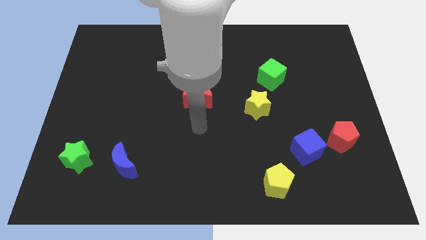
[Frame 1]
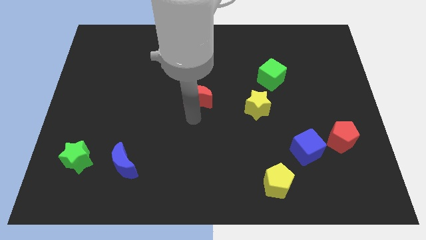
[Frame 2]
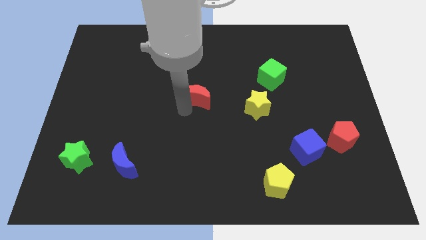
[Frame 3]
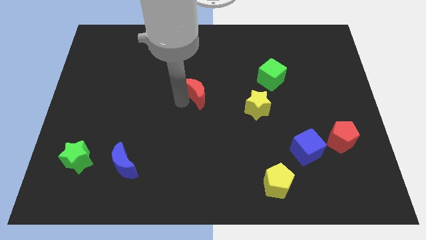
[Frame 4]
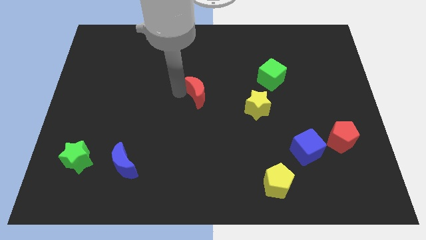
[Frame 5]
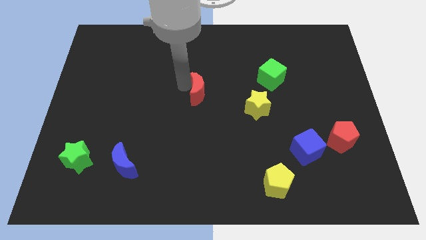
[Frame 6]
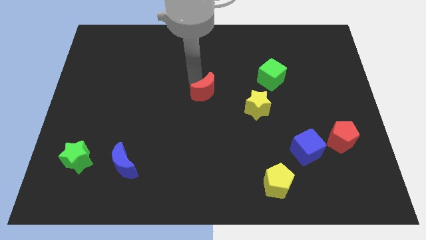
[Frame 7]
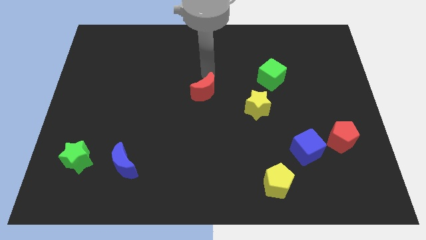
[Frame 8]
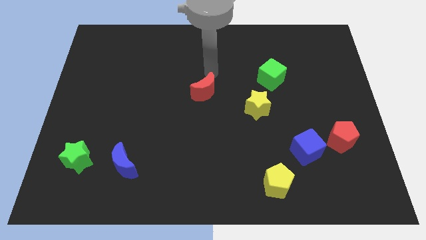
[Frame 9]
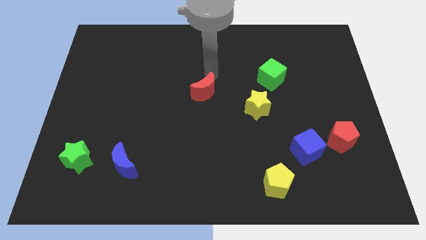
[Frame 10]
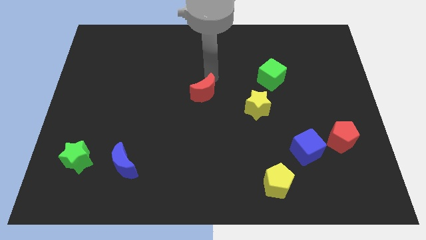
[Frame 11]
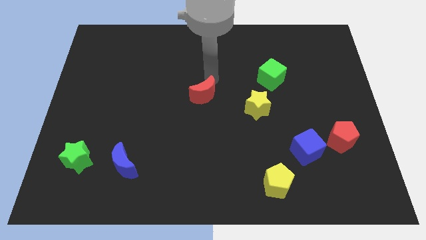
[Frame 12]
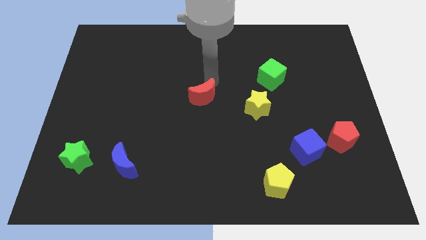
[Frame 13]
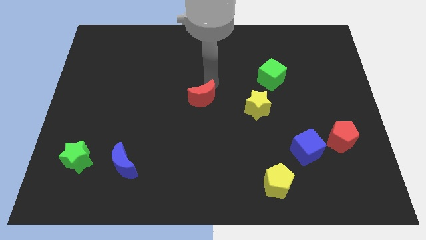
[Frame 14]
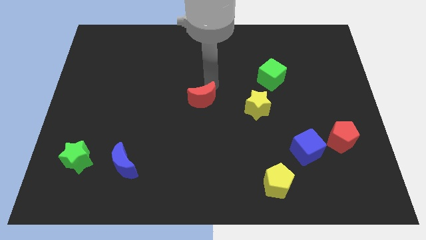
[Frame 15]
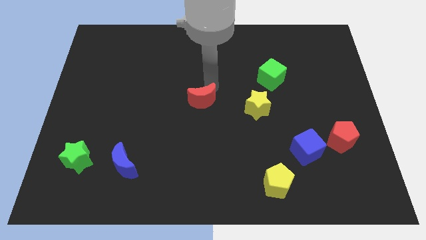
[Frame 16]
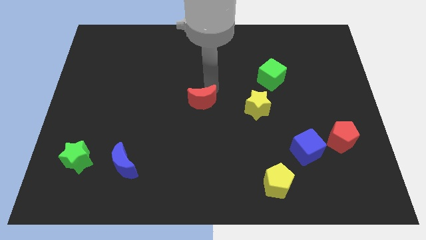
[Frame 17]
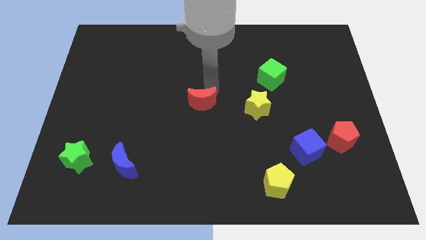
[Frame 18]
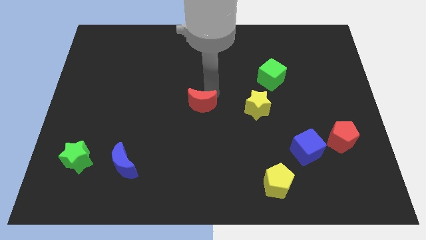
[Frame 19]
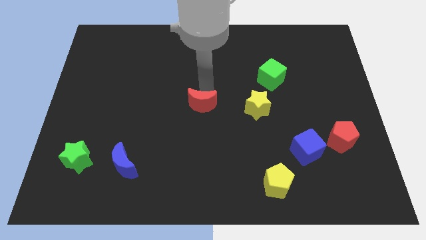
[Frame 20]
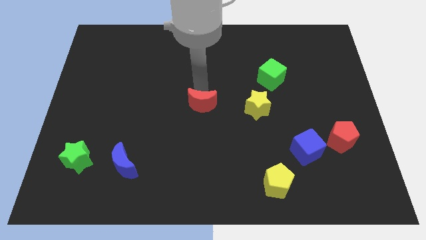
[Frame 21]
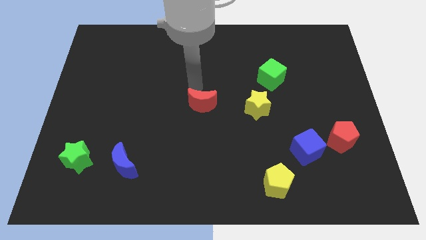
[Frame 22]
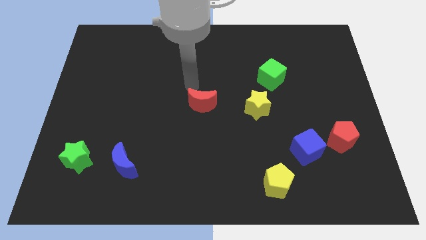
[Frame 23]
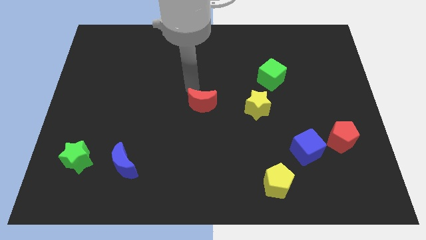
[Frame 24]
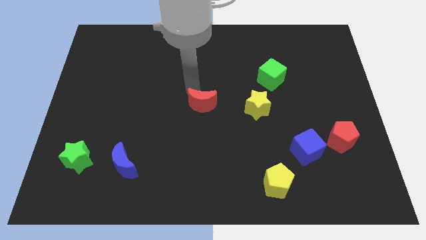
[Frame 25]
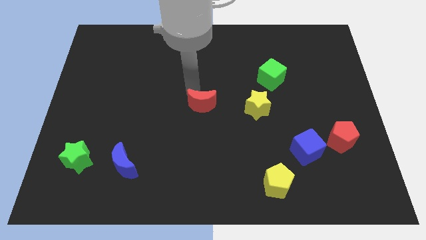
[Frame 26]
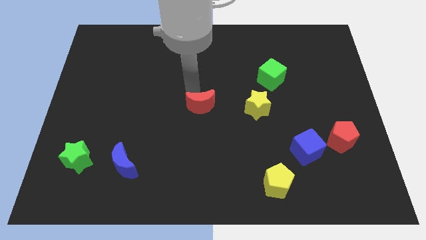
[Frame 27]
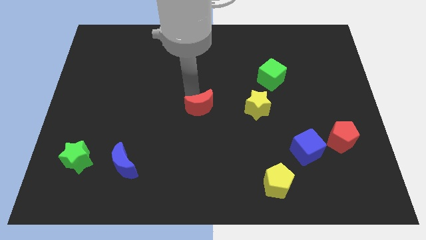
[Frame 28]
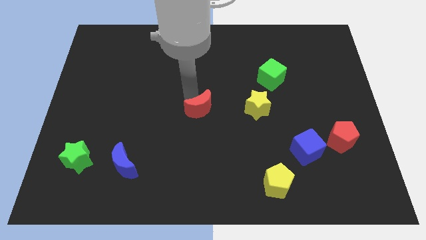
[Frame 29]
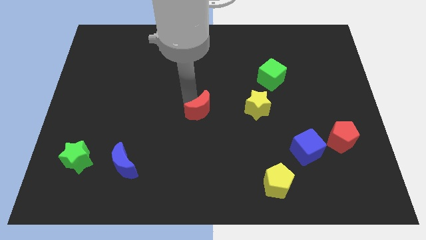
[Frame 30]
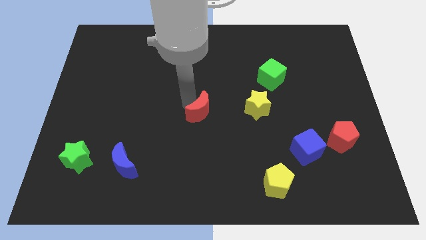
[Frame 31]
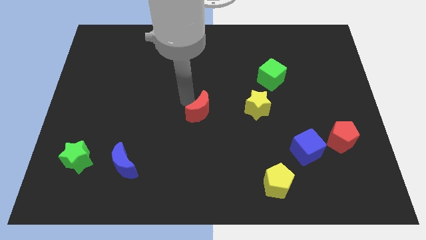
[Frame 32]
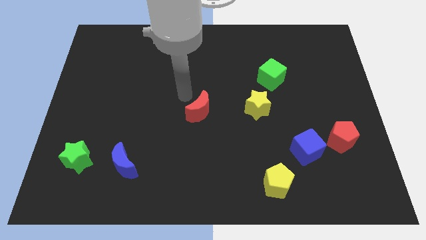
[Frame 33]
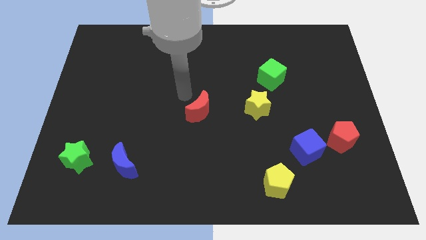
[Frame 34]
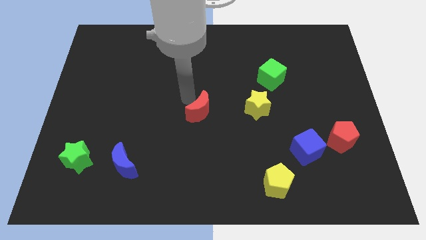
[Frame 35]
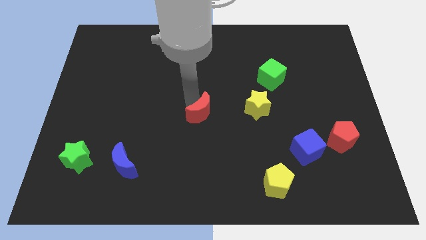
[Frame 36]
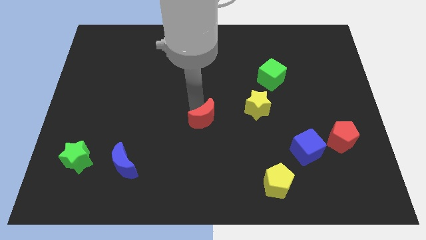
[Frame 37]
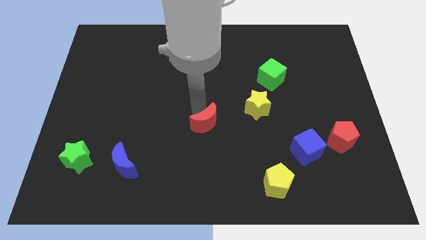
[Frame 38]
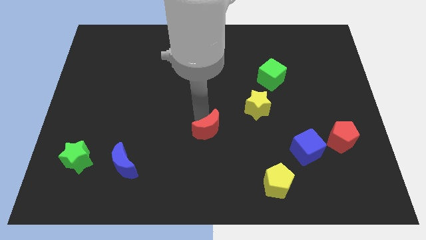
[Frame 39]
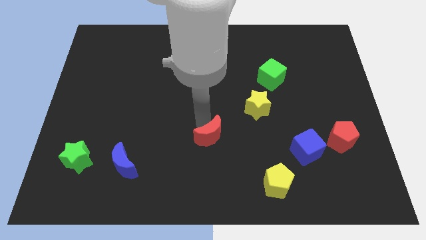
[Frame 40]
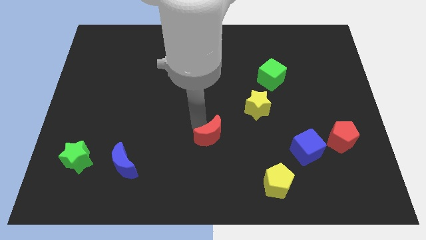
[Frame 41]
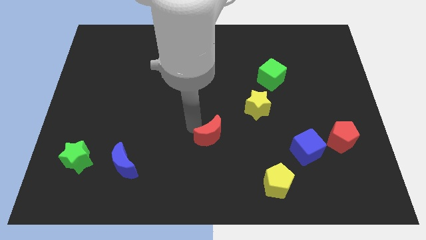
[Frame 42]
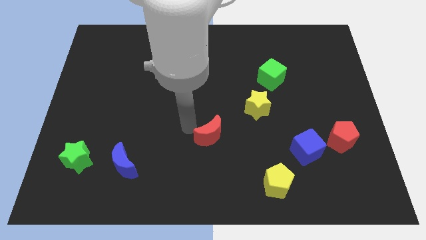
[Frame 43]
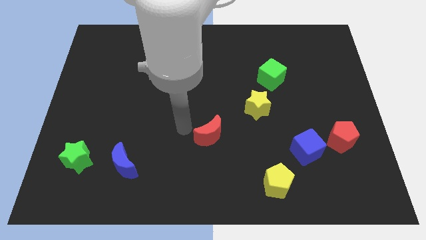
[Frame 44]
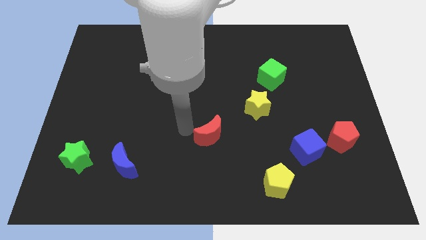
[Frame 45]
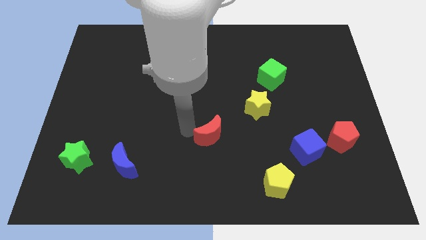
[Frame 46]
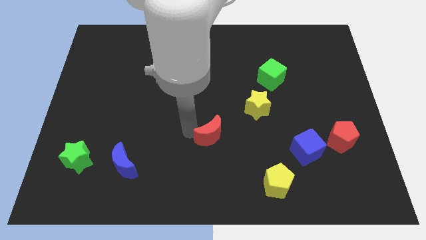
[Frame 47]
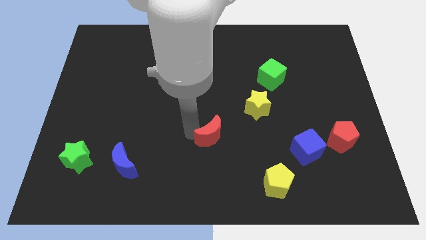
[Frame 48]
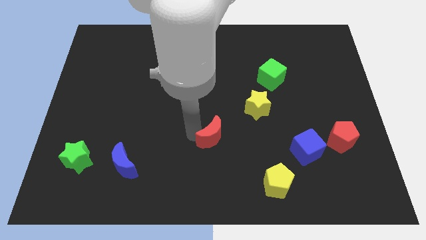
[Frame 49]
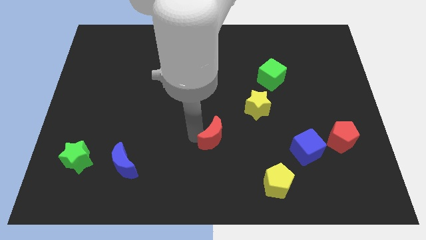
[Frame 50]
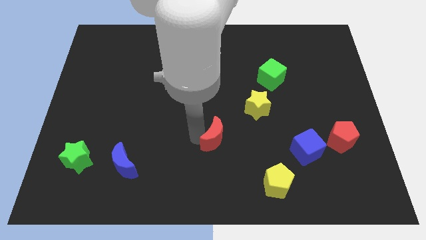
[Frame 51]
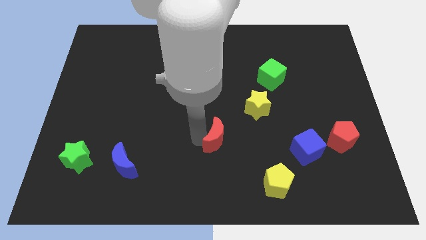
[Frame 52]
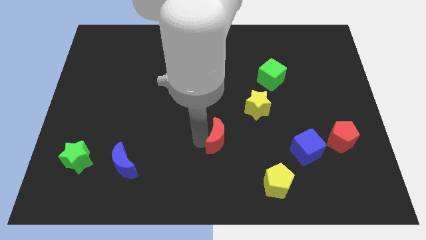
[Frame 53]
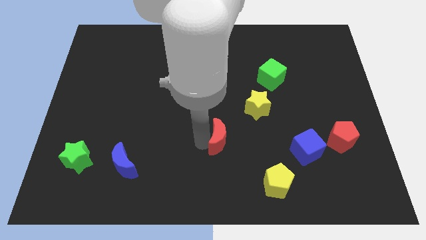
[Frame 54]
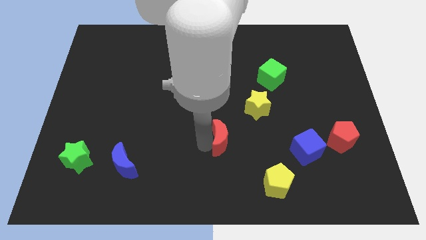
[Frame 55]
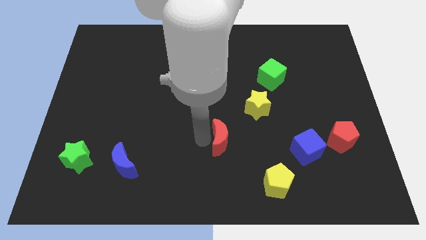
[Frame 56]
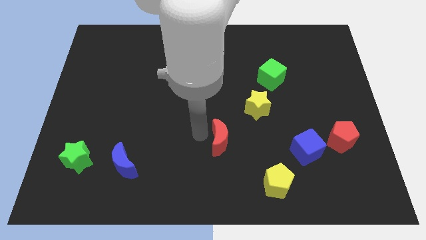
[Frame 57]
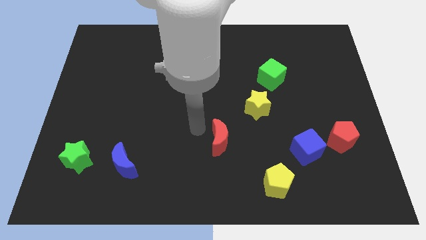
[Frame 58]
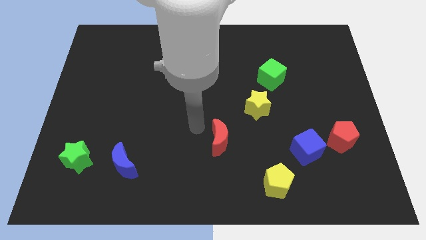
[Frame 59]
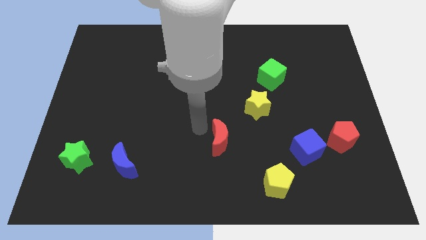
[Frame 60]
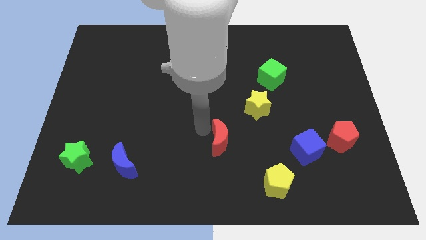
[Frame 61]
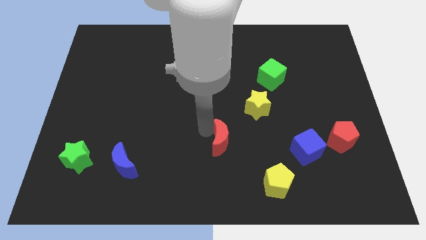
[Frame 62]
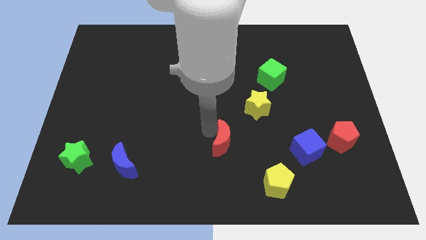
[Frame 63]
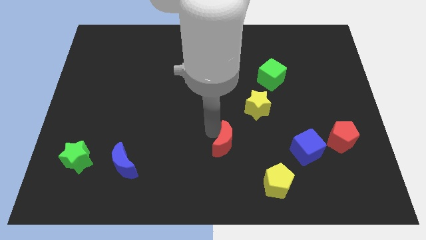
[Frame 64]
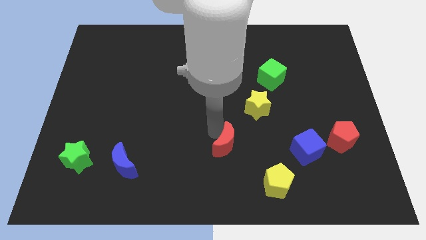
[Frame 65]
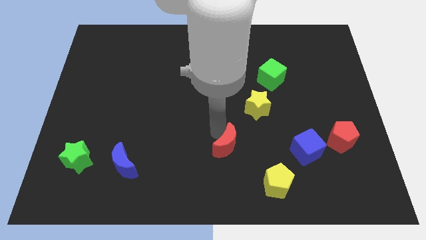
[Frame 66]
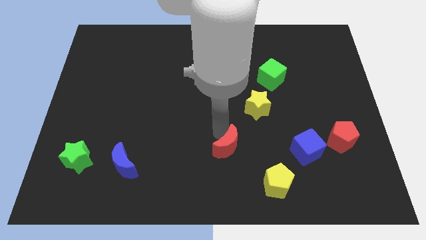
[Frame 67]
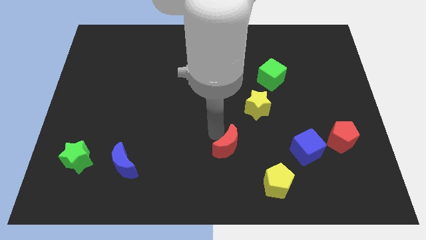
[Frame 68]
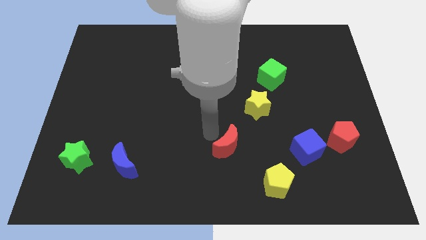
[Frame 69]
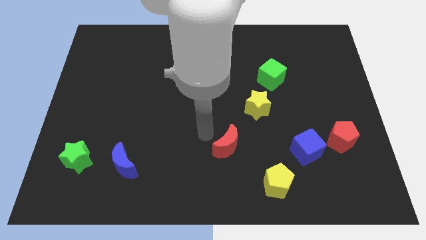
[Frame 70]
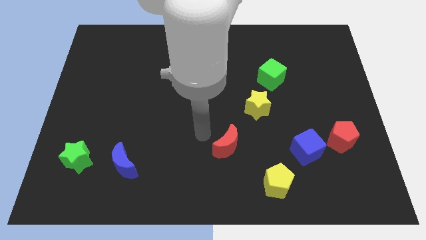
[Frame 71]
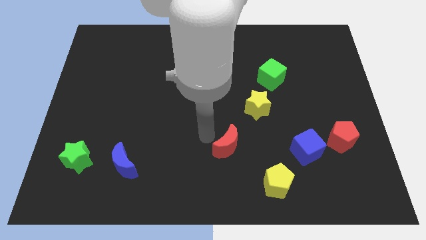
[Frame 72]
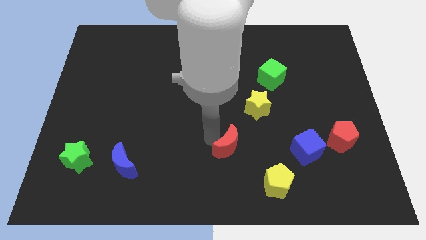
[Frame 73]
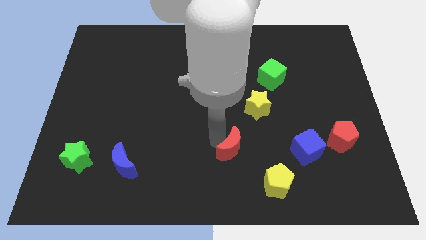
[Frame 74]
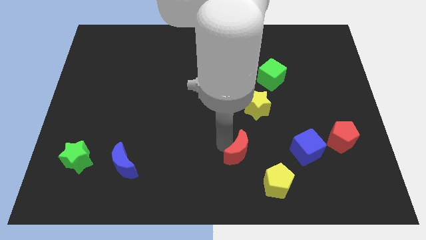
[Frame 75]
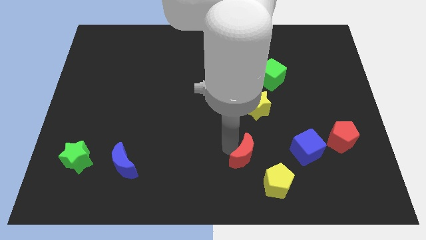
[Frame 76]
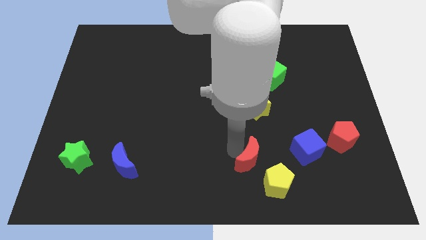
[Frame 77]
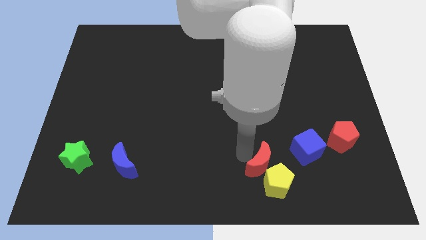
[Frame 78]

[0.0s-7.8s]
slide the red moon to the yellow pentagon
